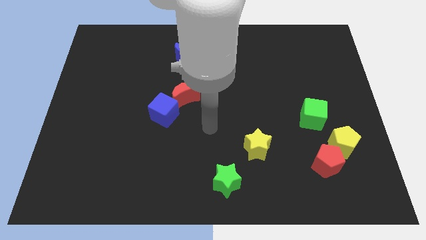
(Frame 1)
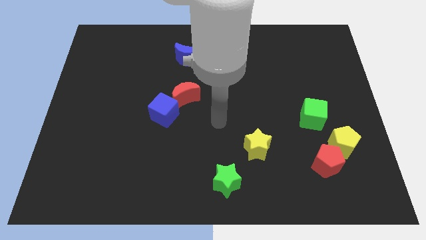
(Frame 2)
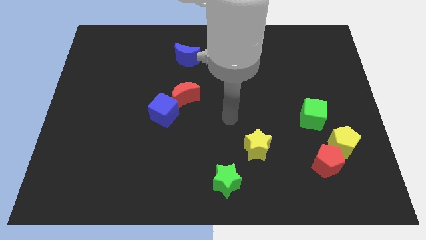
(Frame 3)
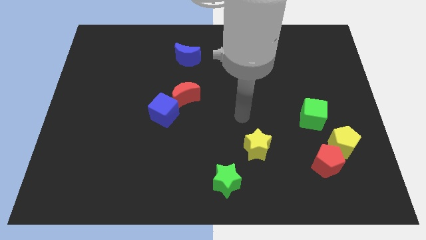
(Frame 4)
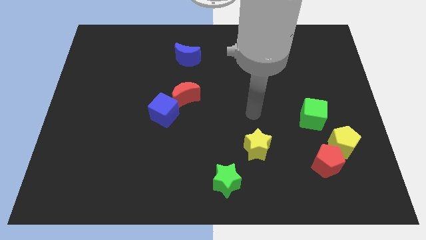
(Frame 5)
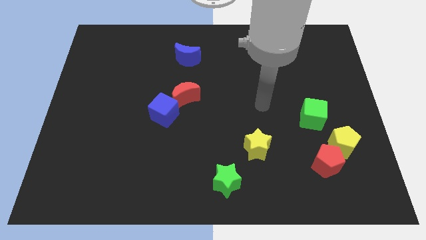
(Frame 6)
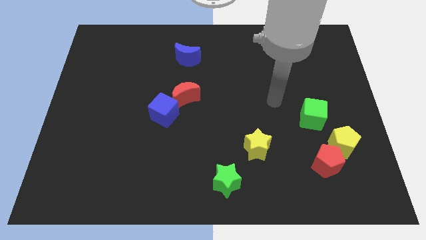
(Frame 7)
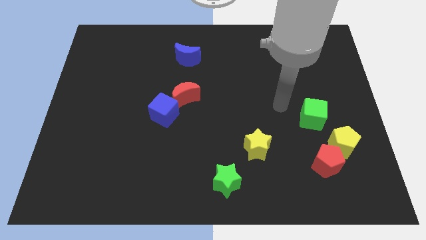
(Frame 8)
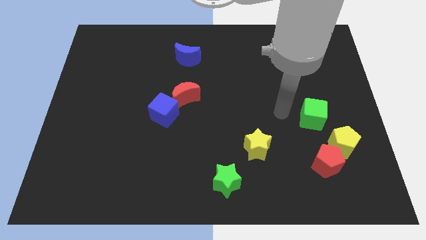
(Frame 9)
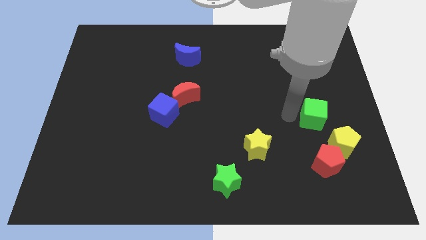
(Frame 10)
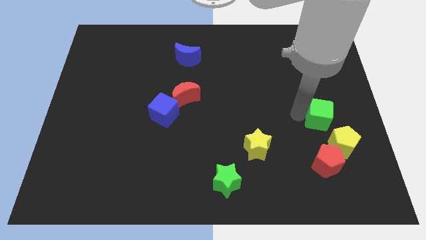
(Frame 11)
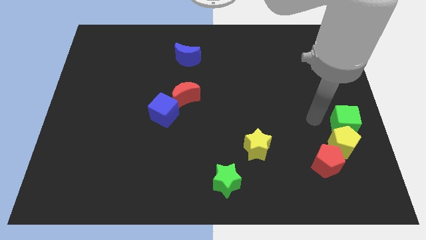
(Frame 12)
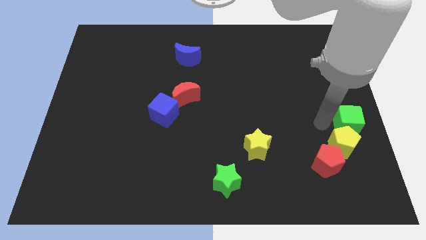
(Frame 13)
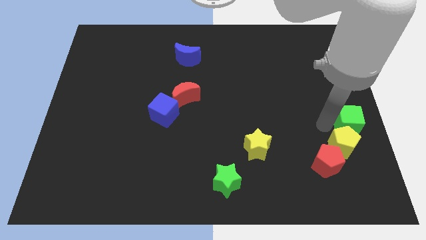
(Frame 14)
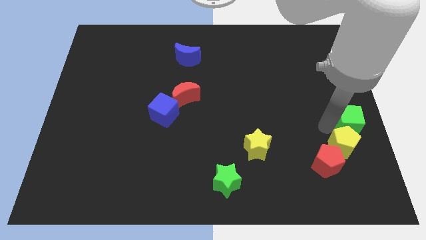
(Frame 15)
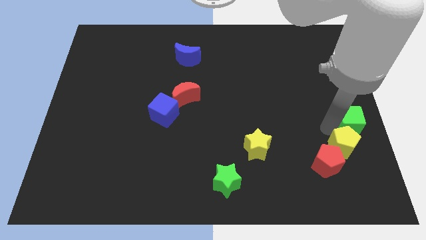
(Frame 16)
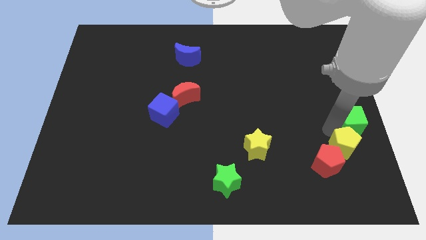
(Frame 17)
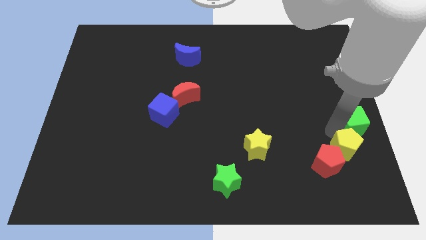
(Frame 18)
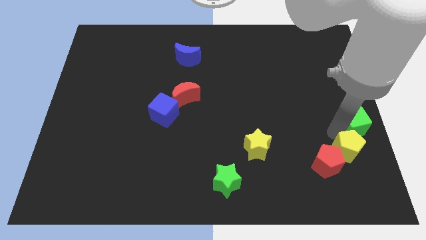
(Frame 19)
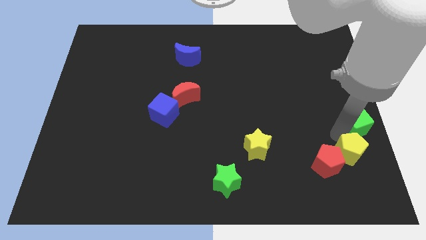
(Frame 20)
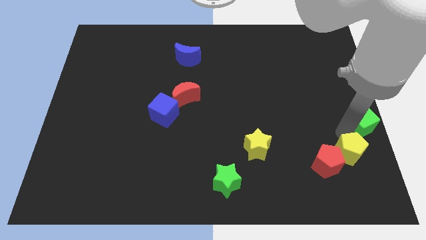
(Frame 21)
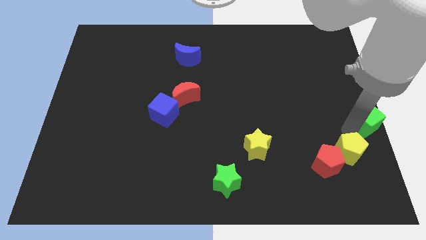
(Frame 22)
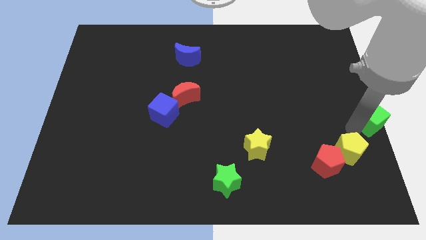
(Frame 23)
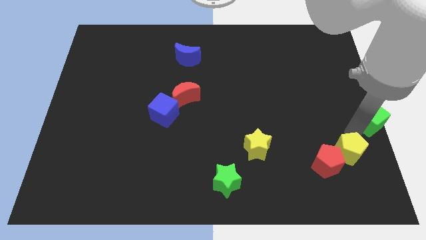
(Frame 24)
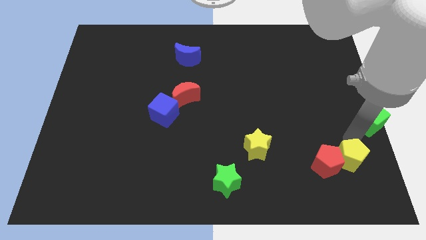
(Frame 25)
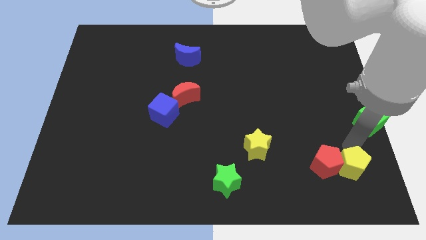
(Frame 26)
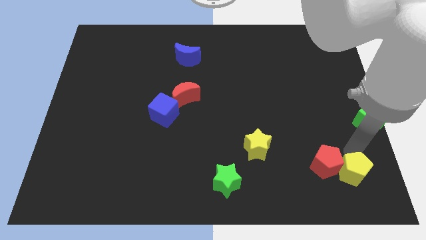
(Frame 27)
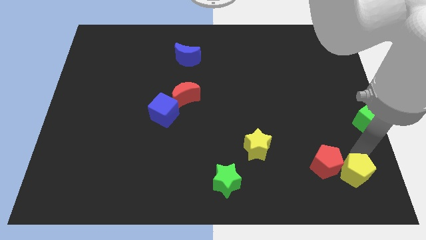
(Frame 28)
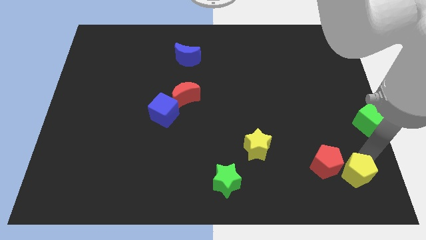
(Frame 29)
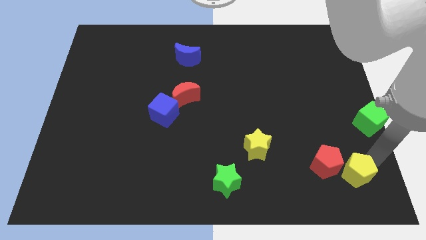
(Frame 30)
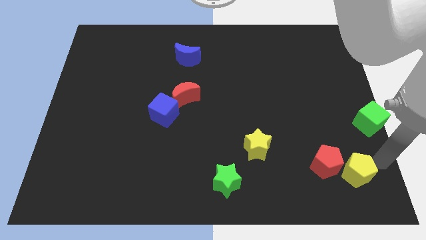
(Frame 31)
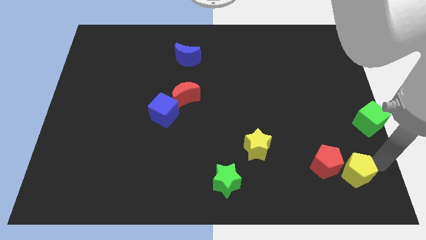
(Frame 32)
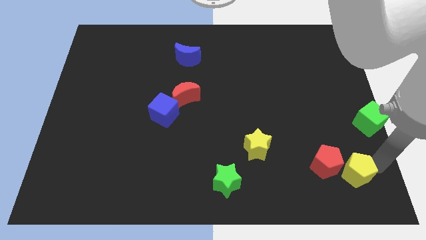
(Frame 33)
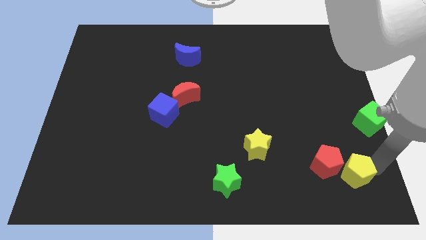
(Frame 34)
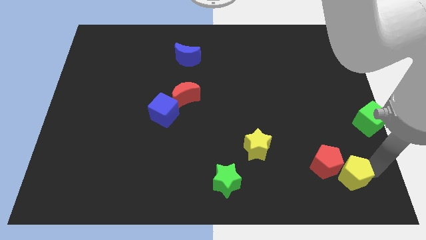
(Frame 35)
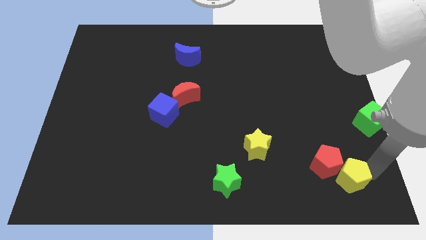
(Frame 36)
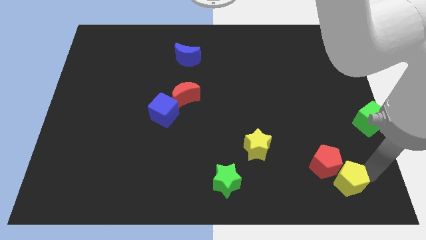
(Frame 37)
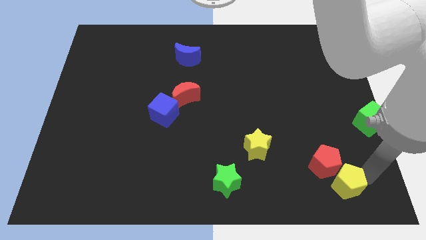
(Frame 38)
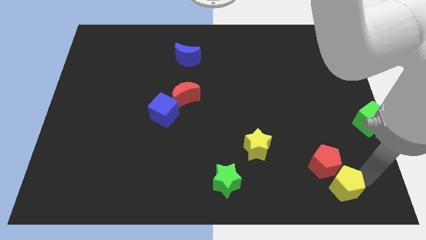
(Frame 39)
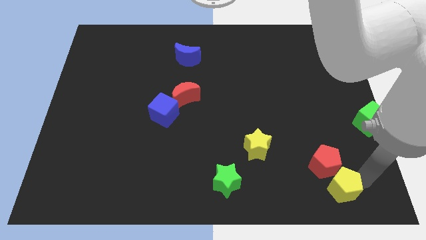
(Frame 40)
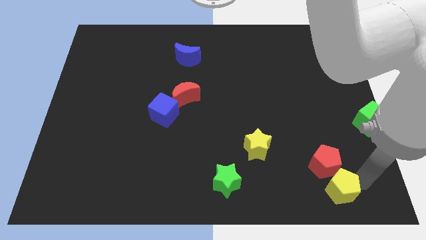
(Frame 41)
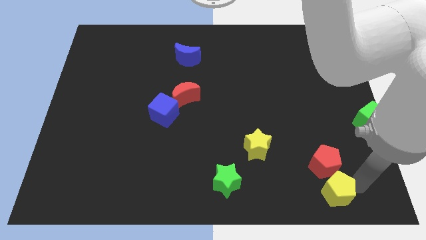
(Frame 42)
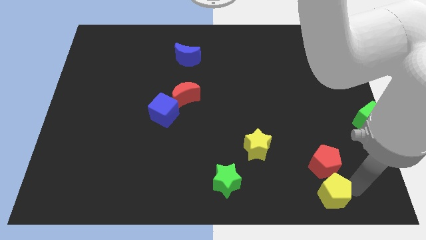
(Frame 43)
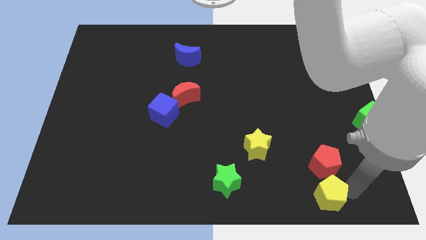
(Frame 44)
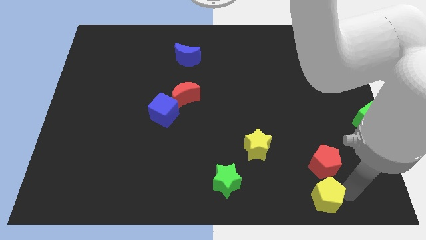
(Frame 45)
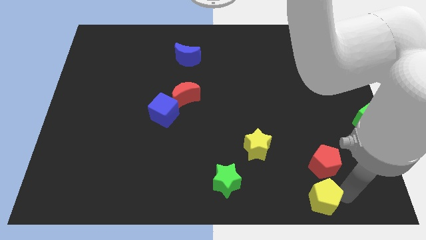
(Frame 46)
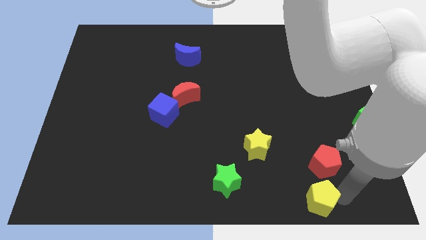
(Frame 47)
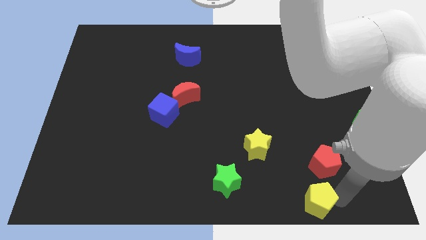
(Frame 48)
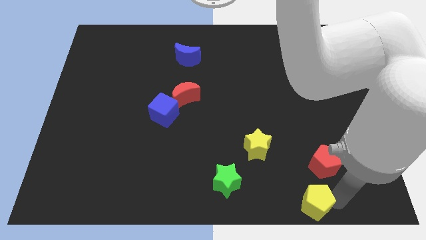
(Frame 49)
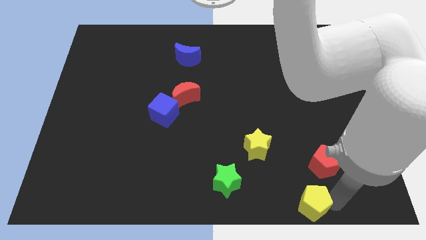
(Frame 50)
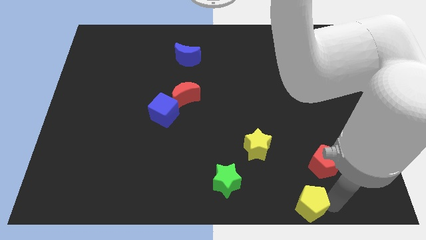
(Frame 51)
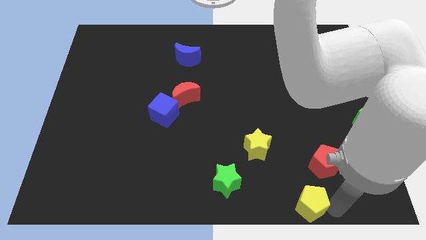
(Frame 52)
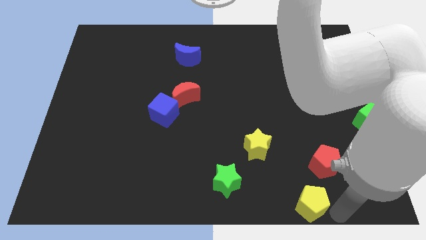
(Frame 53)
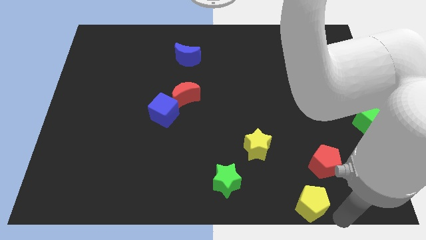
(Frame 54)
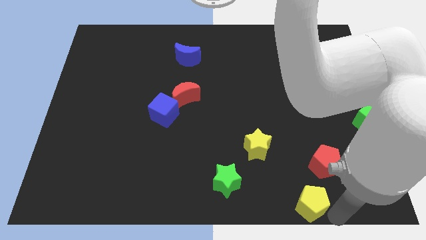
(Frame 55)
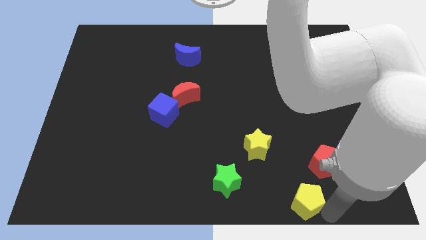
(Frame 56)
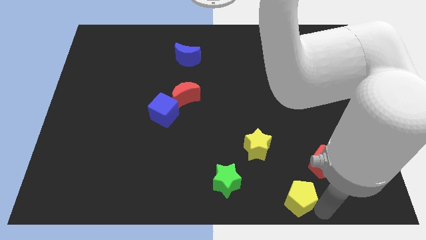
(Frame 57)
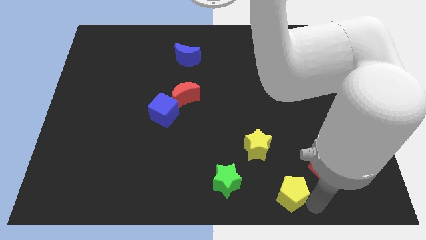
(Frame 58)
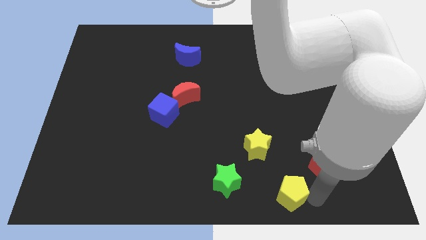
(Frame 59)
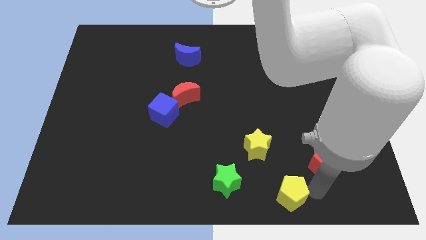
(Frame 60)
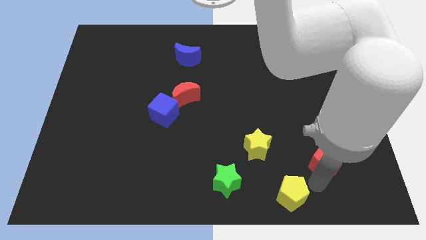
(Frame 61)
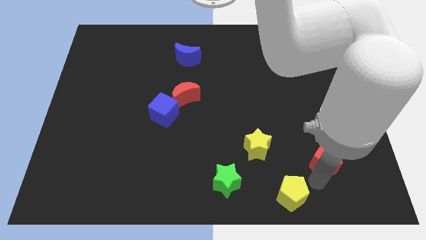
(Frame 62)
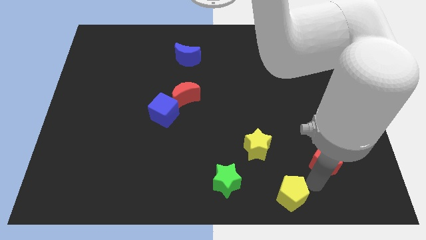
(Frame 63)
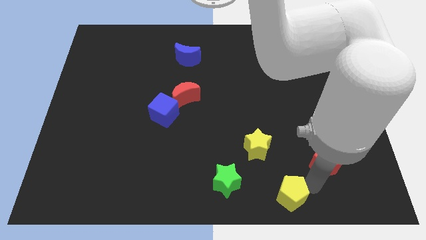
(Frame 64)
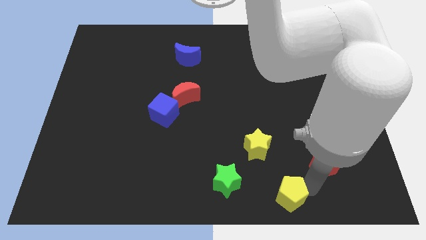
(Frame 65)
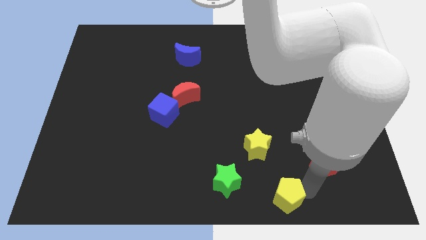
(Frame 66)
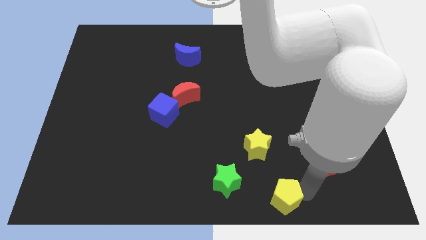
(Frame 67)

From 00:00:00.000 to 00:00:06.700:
push the yellow pentagon to the bottom side
